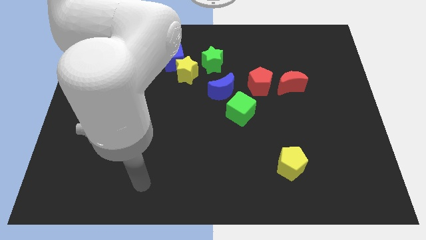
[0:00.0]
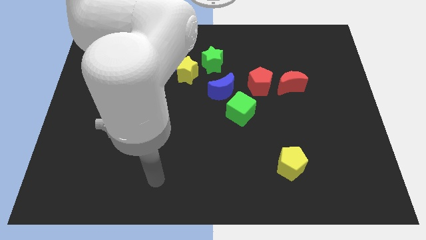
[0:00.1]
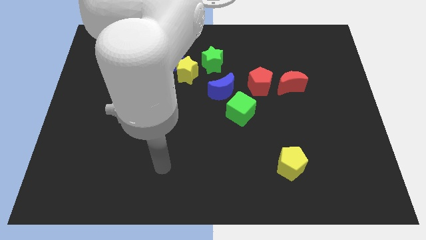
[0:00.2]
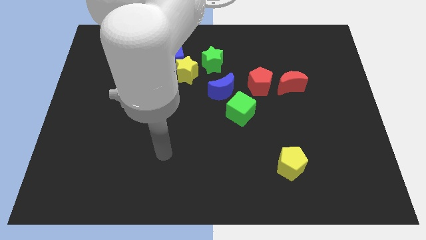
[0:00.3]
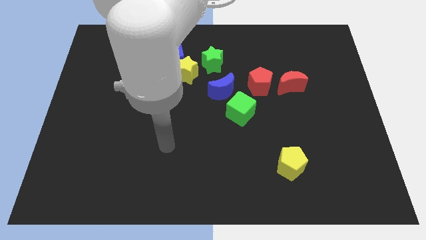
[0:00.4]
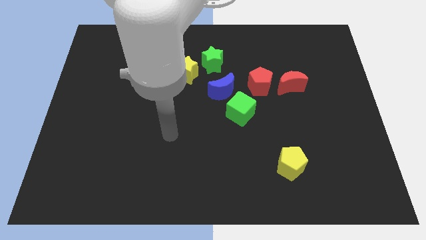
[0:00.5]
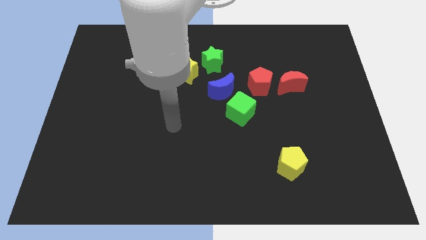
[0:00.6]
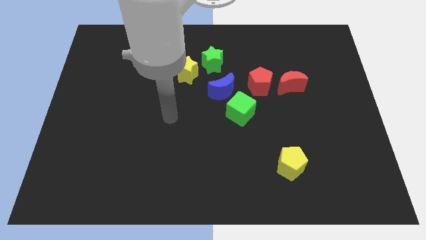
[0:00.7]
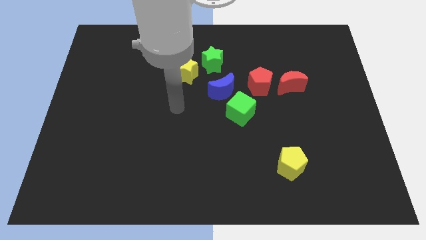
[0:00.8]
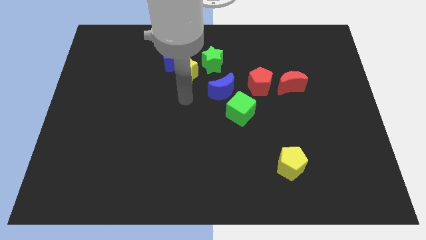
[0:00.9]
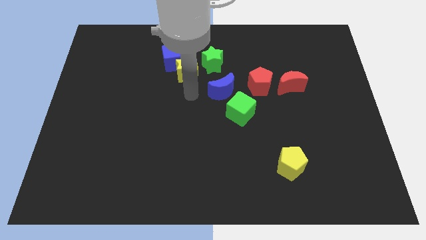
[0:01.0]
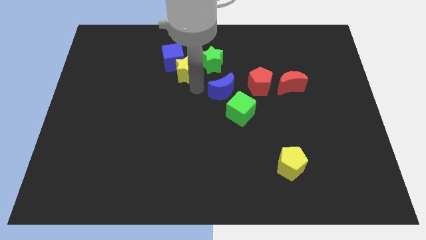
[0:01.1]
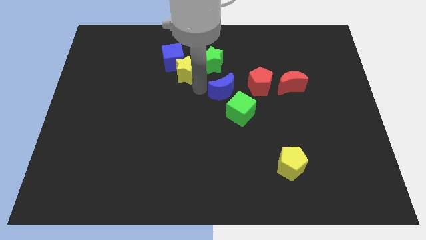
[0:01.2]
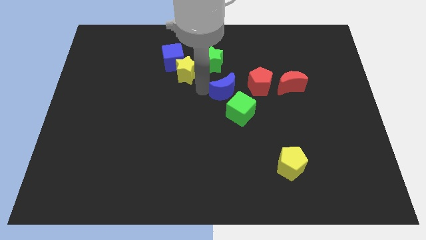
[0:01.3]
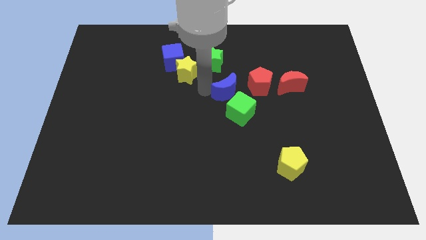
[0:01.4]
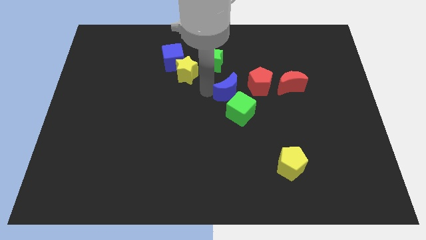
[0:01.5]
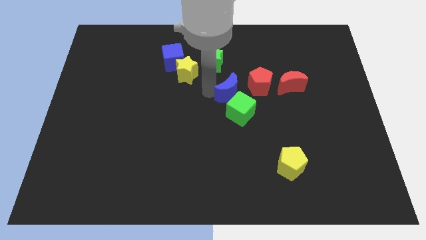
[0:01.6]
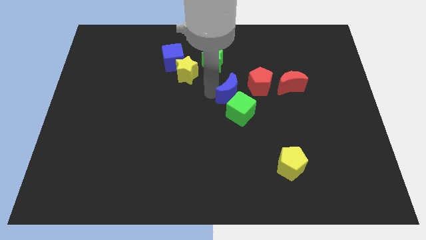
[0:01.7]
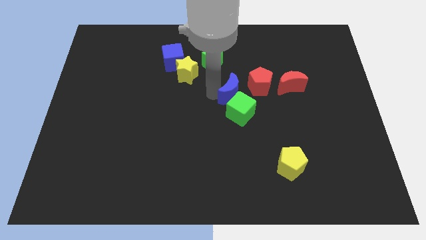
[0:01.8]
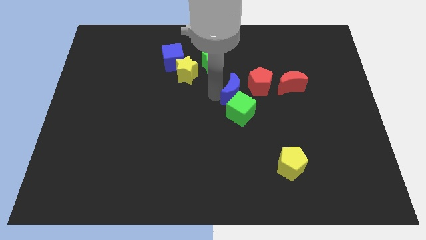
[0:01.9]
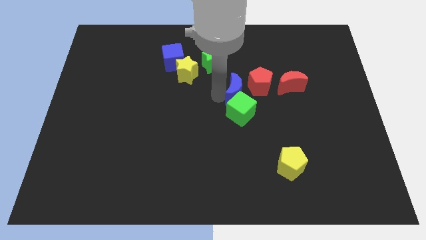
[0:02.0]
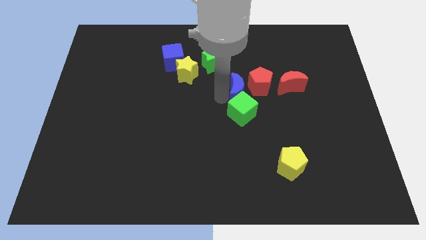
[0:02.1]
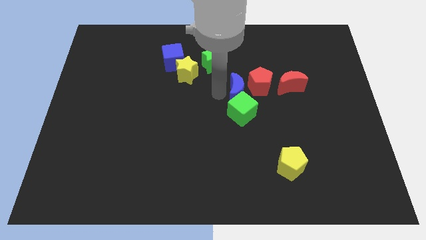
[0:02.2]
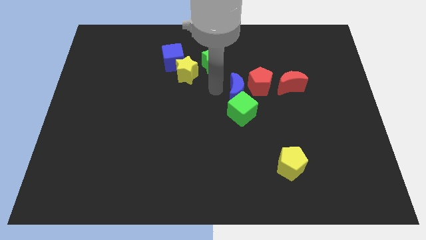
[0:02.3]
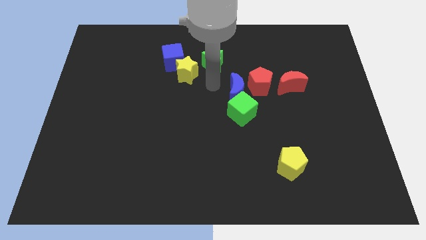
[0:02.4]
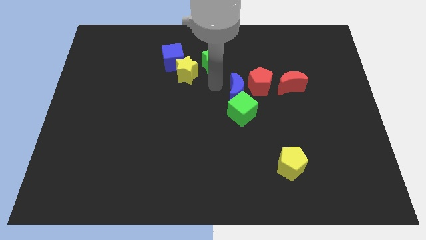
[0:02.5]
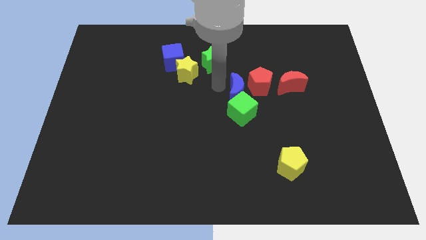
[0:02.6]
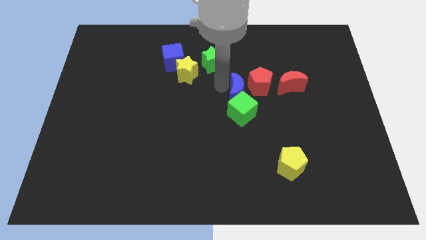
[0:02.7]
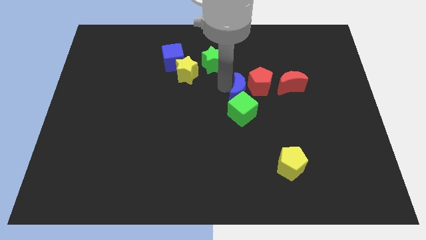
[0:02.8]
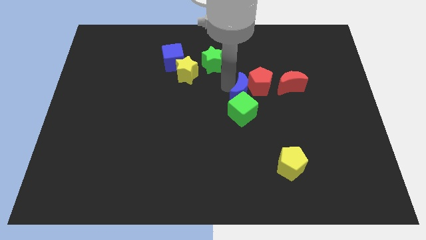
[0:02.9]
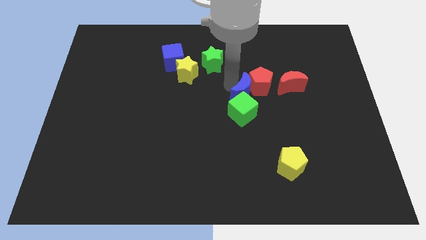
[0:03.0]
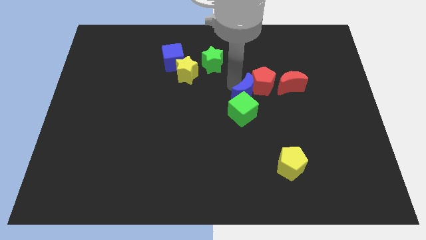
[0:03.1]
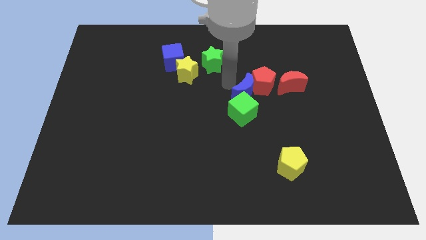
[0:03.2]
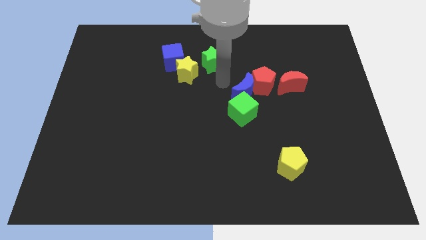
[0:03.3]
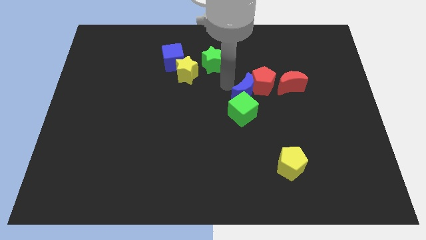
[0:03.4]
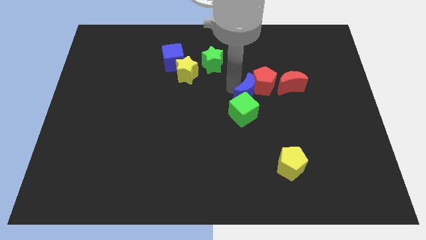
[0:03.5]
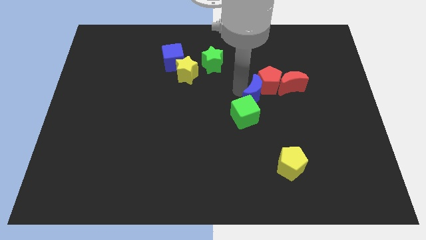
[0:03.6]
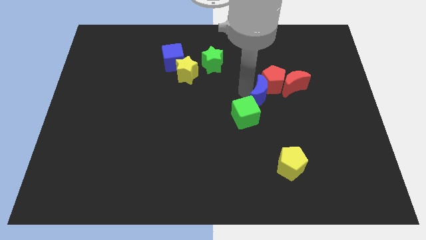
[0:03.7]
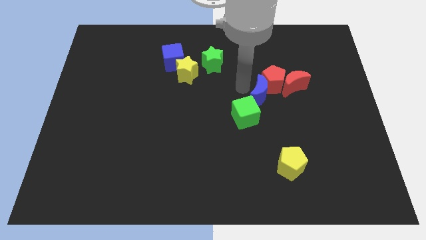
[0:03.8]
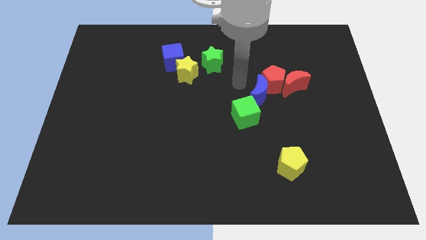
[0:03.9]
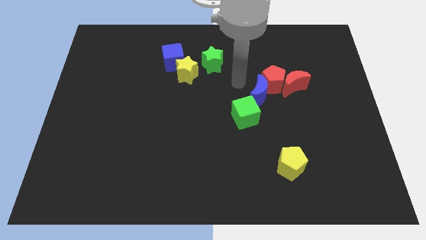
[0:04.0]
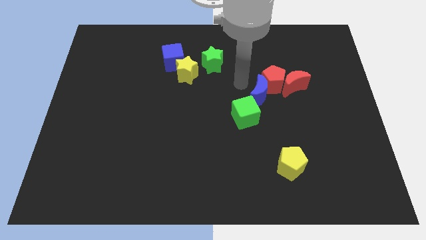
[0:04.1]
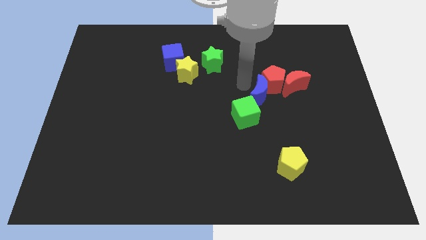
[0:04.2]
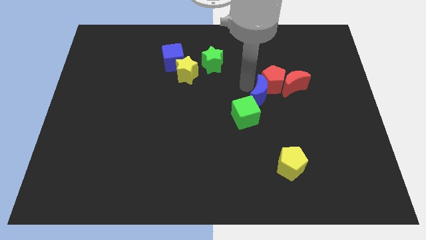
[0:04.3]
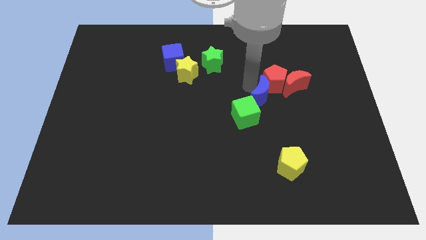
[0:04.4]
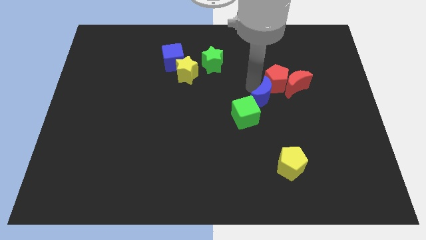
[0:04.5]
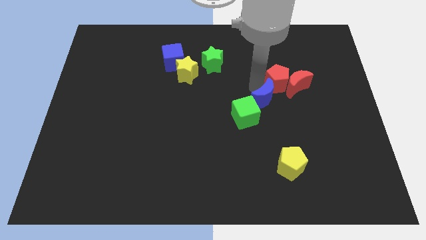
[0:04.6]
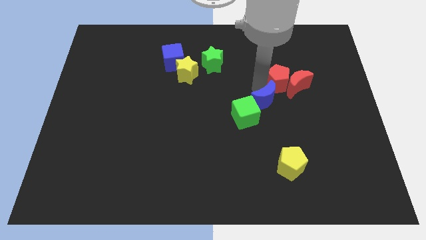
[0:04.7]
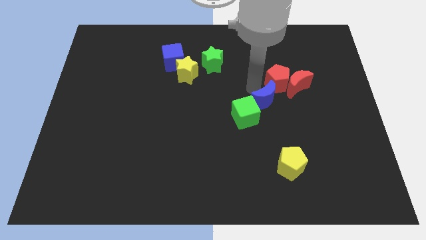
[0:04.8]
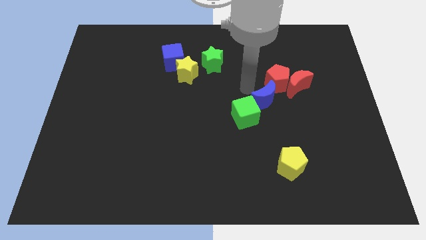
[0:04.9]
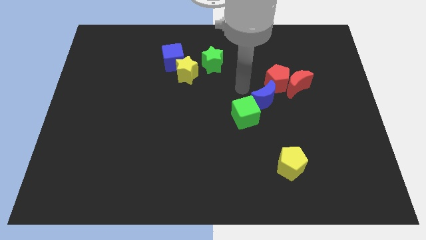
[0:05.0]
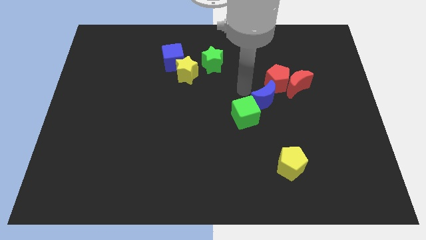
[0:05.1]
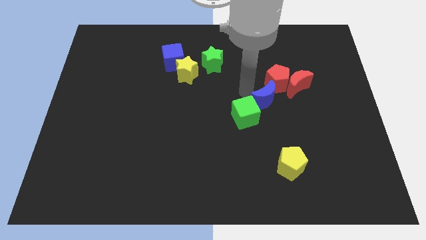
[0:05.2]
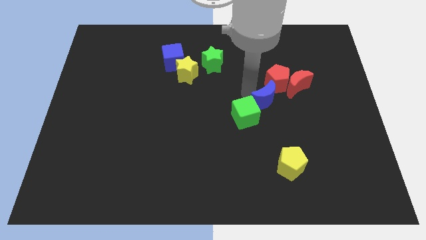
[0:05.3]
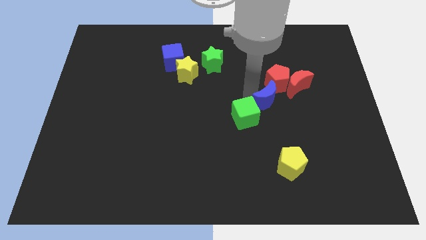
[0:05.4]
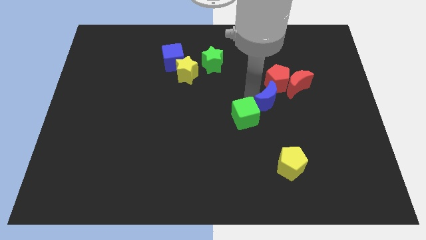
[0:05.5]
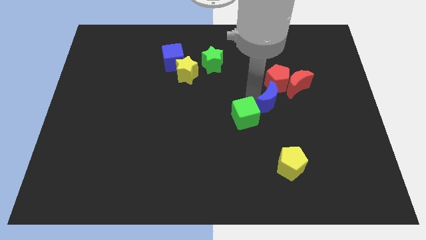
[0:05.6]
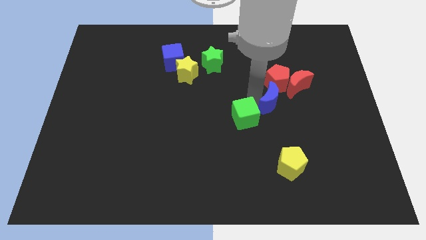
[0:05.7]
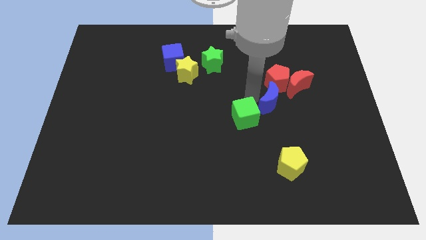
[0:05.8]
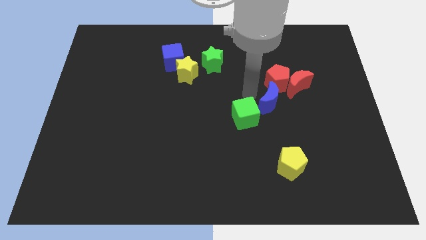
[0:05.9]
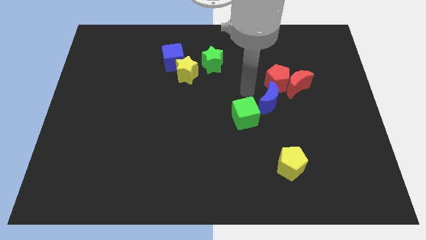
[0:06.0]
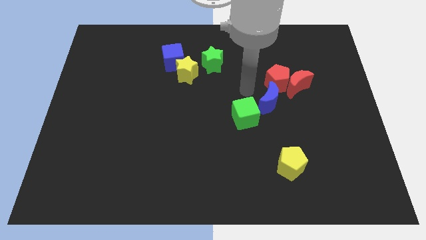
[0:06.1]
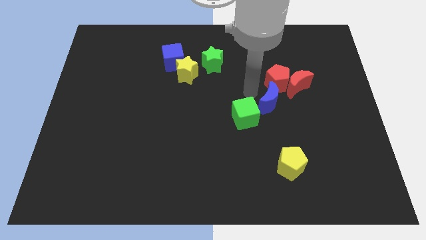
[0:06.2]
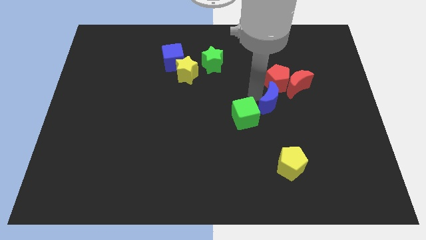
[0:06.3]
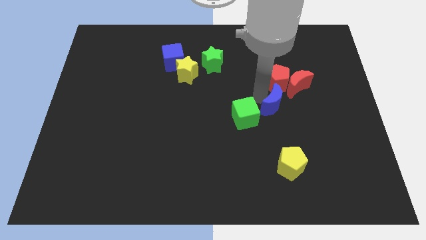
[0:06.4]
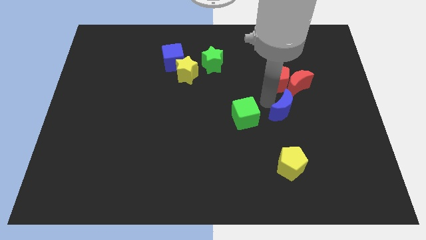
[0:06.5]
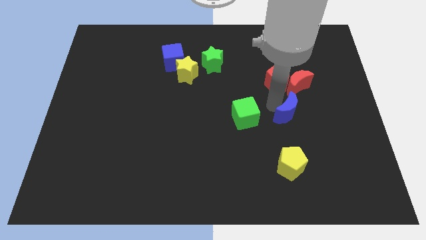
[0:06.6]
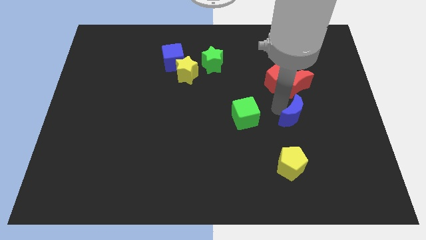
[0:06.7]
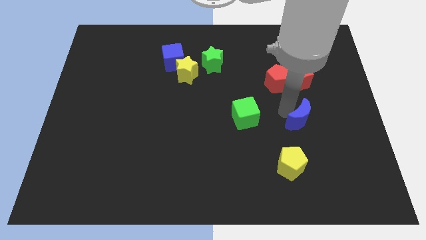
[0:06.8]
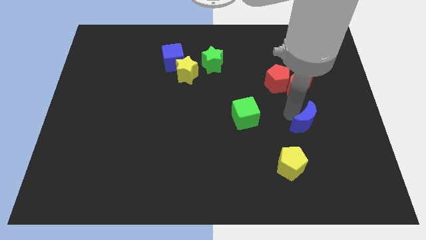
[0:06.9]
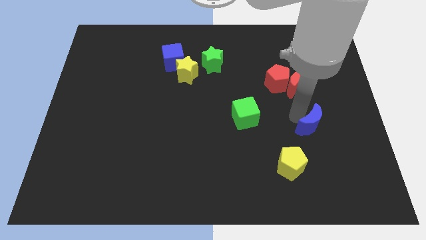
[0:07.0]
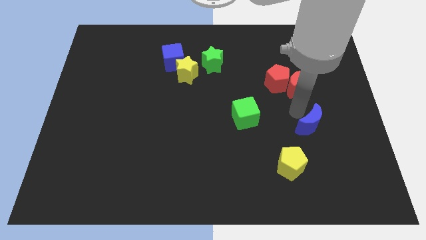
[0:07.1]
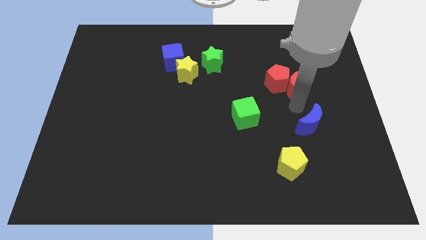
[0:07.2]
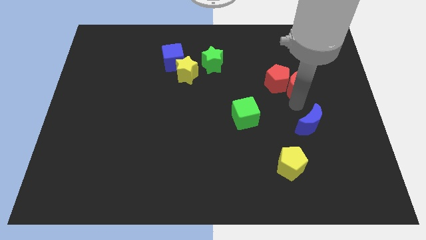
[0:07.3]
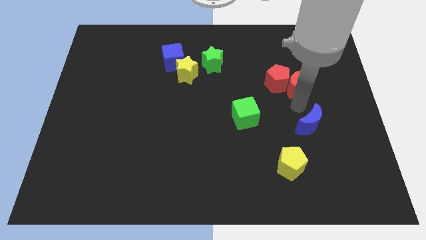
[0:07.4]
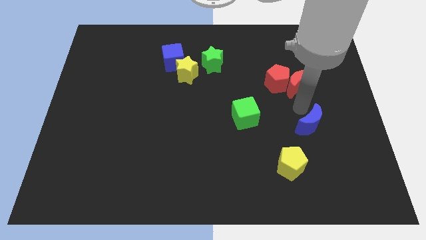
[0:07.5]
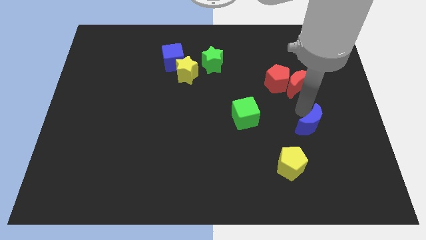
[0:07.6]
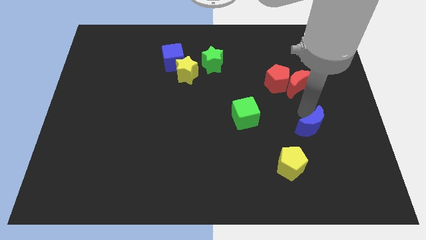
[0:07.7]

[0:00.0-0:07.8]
slide the blue moon diagonally down and right
